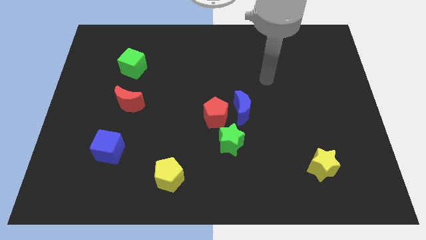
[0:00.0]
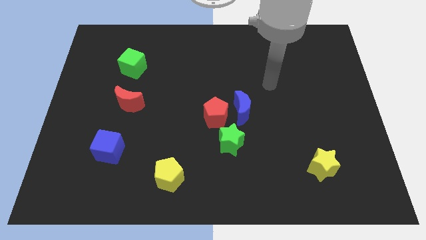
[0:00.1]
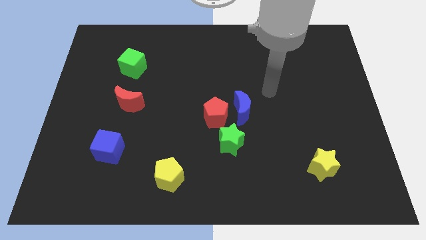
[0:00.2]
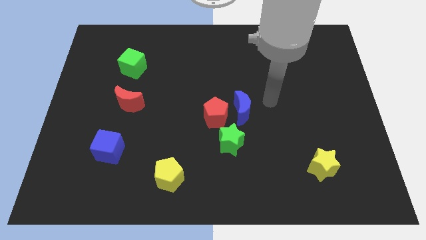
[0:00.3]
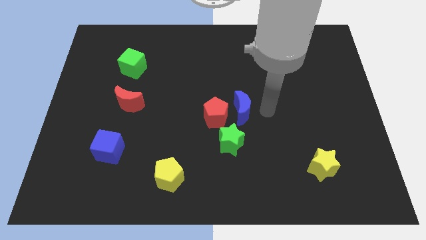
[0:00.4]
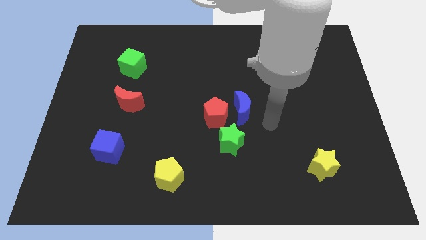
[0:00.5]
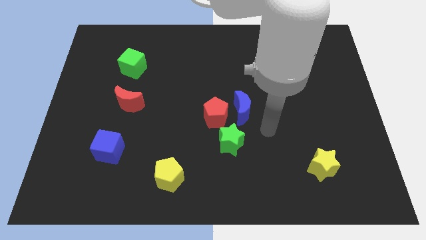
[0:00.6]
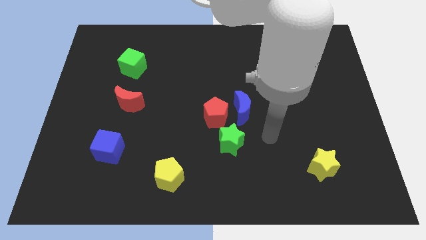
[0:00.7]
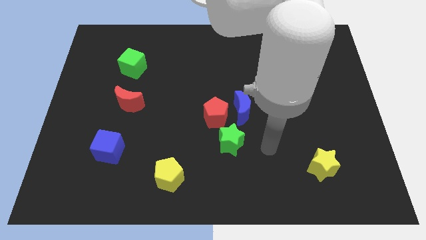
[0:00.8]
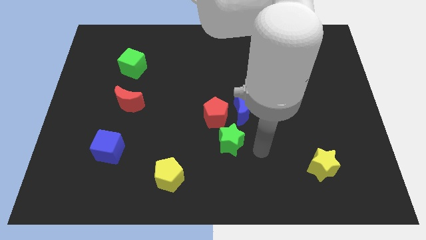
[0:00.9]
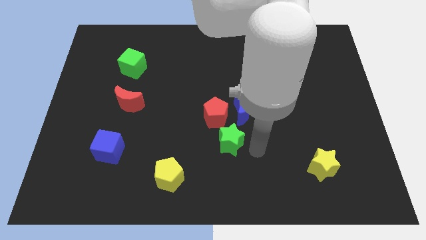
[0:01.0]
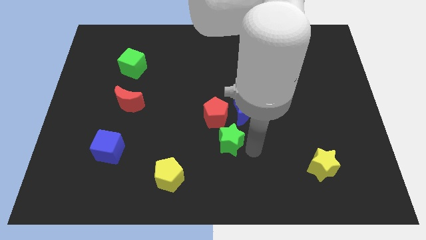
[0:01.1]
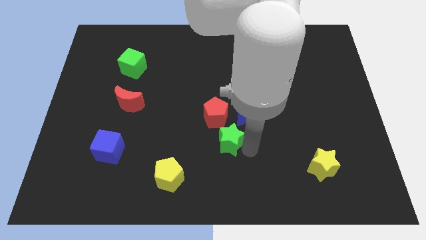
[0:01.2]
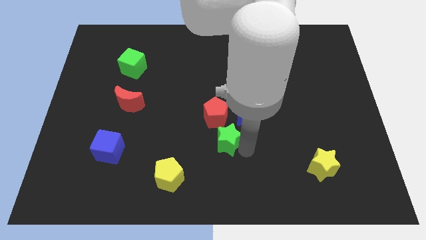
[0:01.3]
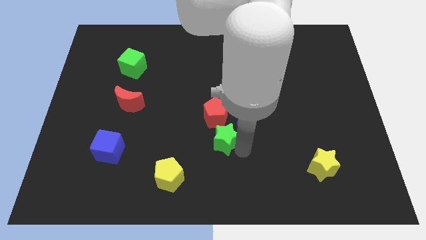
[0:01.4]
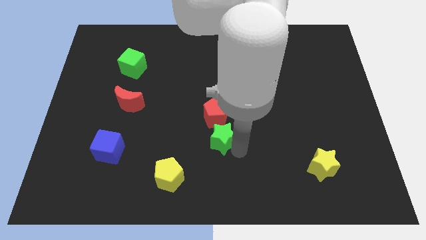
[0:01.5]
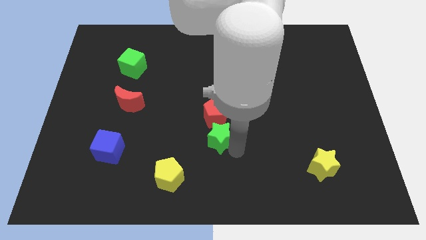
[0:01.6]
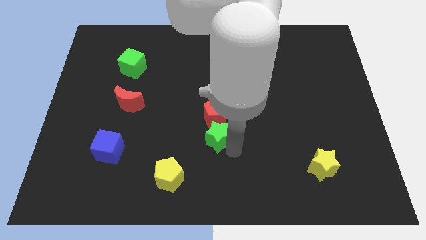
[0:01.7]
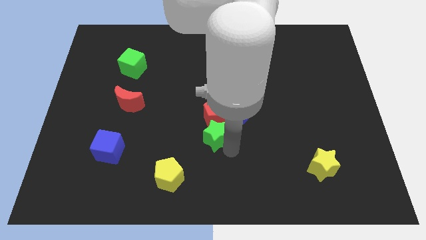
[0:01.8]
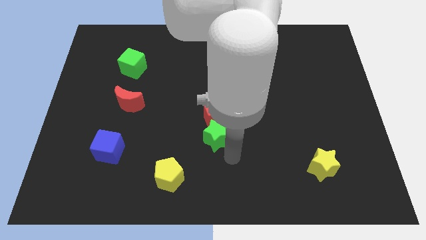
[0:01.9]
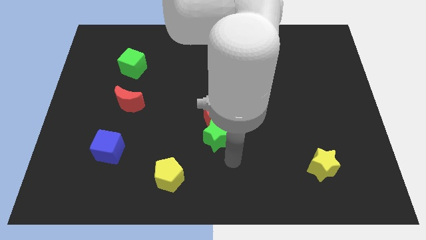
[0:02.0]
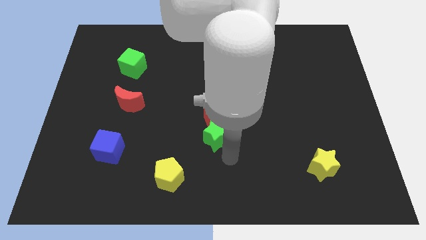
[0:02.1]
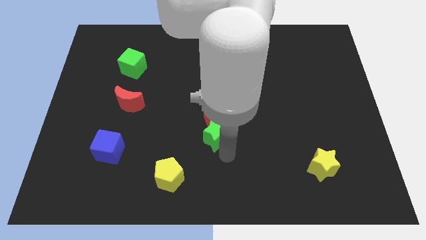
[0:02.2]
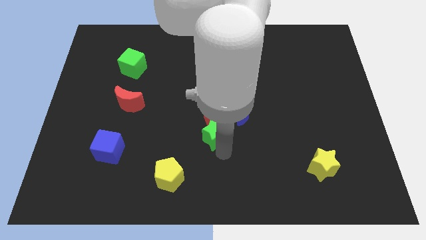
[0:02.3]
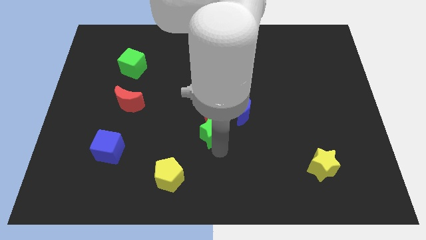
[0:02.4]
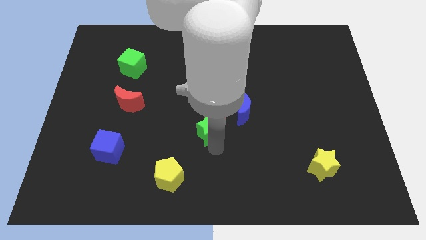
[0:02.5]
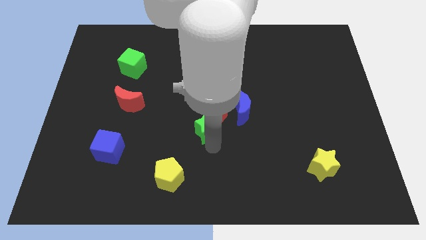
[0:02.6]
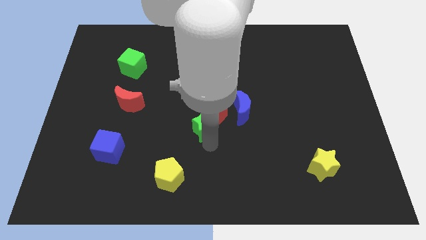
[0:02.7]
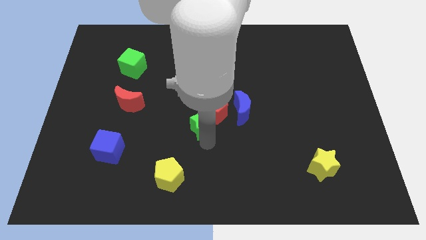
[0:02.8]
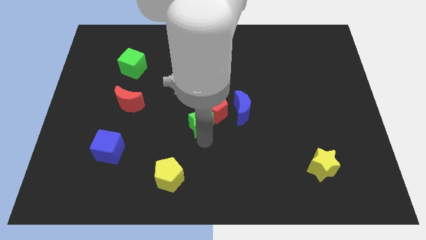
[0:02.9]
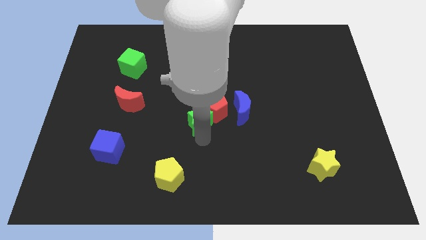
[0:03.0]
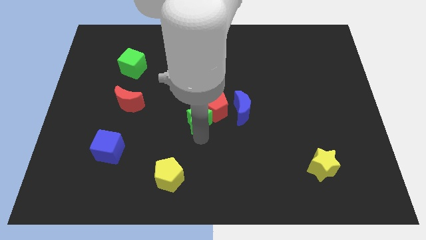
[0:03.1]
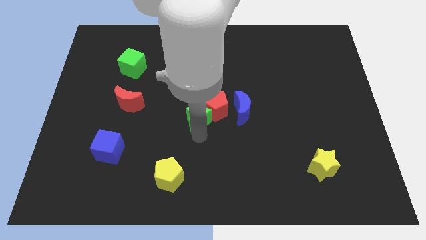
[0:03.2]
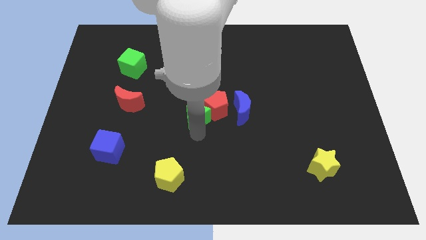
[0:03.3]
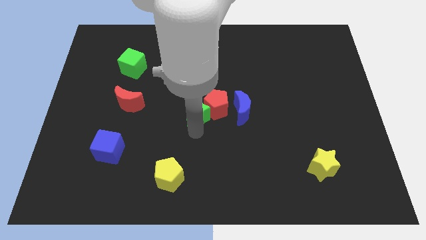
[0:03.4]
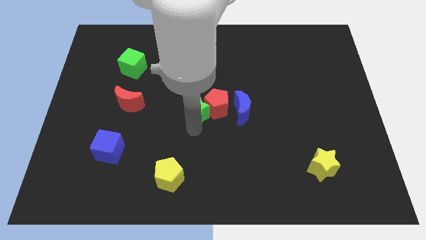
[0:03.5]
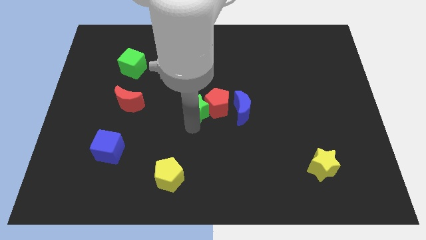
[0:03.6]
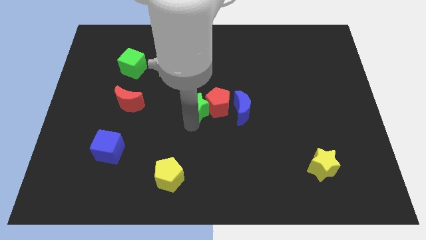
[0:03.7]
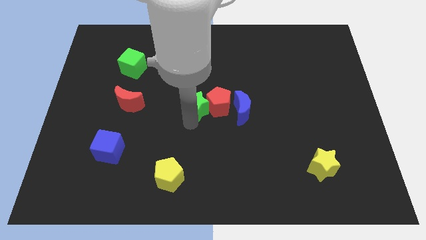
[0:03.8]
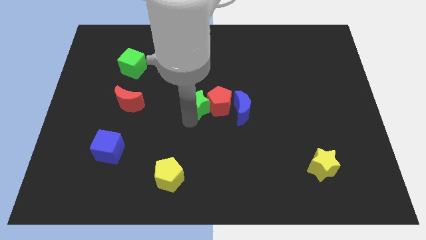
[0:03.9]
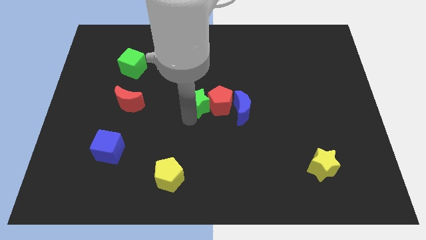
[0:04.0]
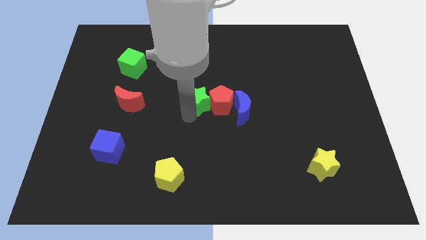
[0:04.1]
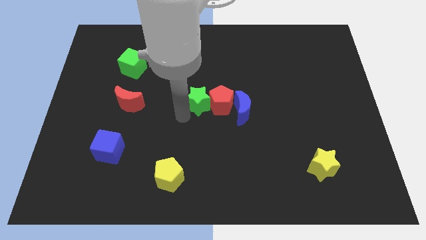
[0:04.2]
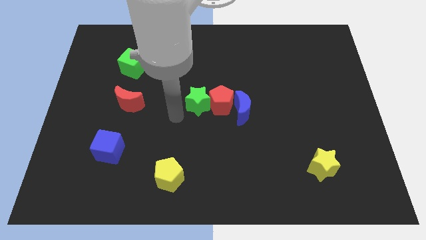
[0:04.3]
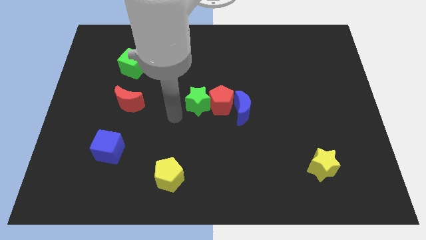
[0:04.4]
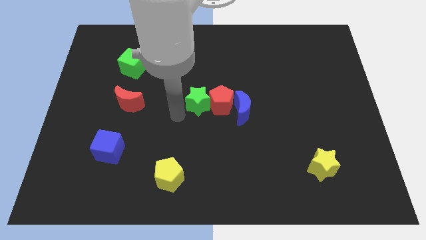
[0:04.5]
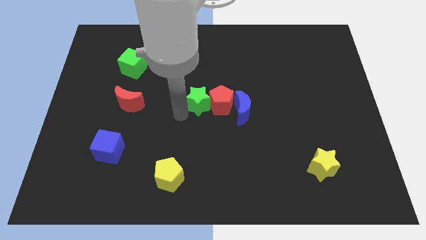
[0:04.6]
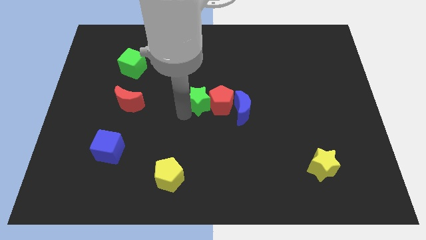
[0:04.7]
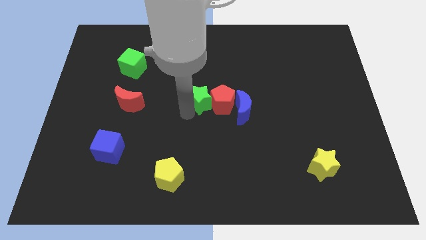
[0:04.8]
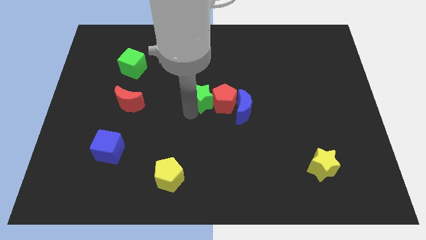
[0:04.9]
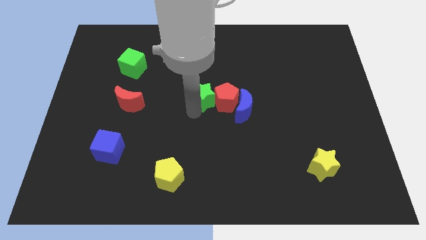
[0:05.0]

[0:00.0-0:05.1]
put the green star diagonally up and to the left of the blue moon

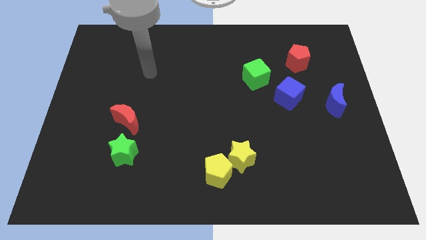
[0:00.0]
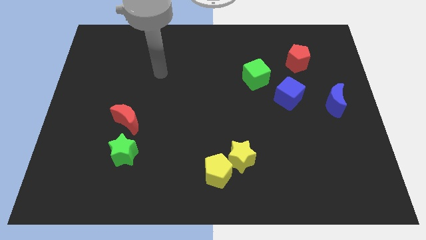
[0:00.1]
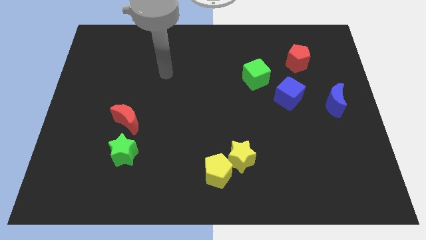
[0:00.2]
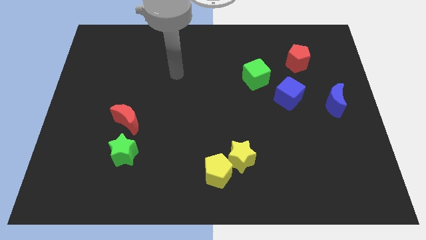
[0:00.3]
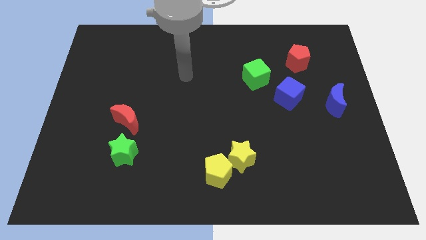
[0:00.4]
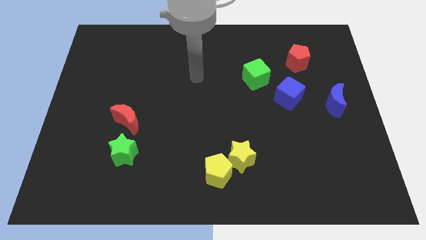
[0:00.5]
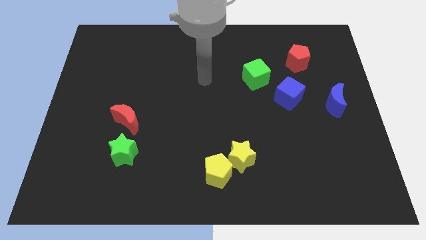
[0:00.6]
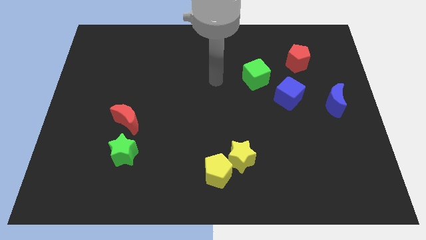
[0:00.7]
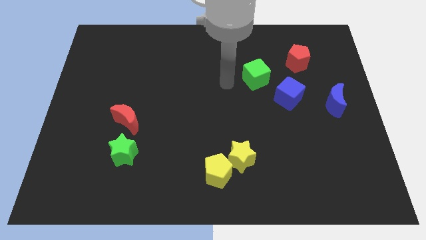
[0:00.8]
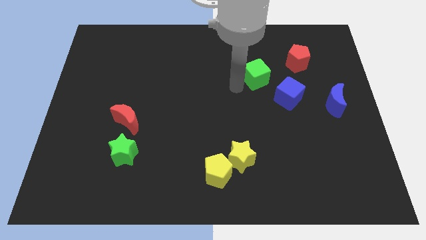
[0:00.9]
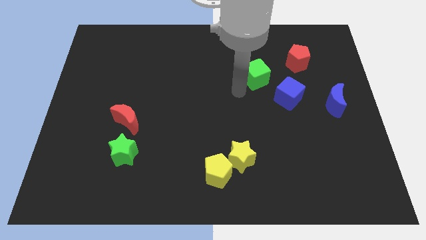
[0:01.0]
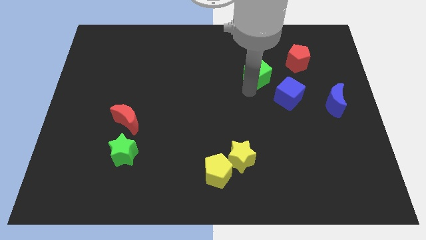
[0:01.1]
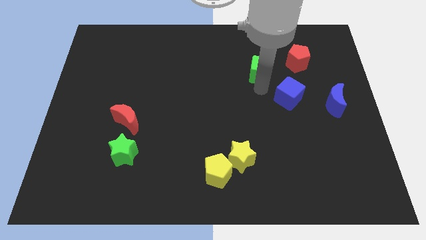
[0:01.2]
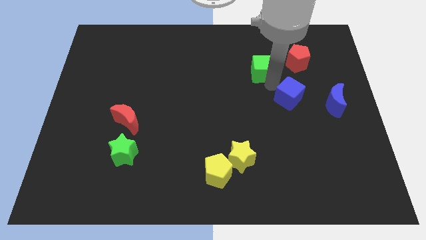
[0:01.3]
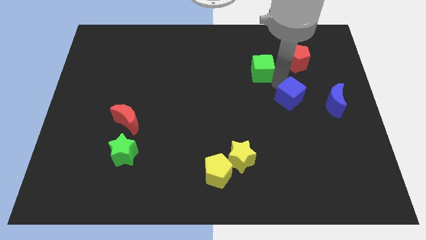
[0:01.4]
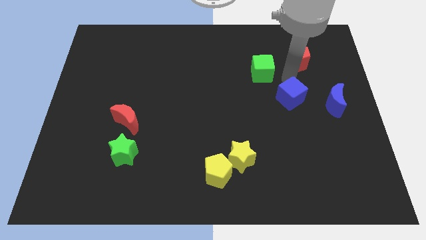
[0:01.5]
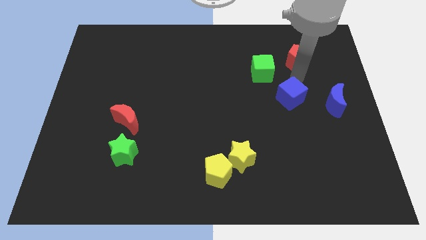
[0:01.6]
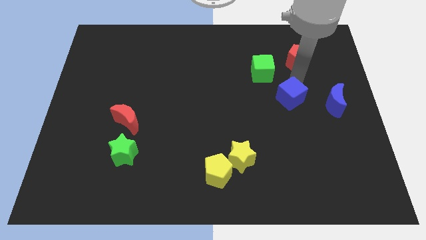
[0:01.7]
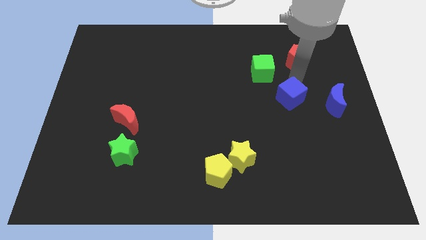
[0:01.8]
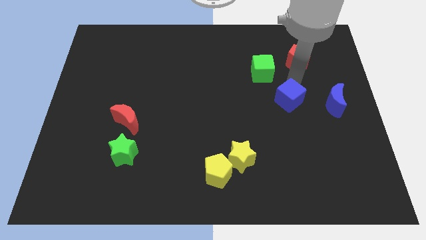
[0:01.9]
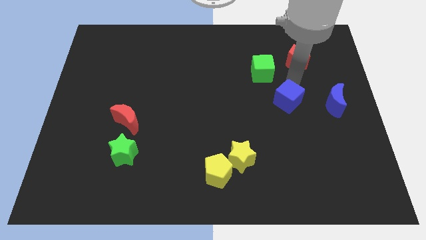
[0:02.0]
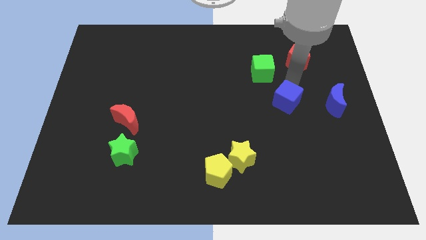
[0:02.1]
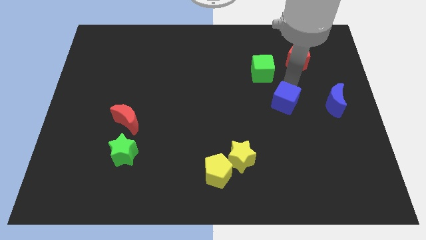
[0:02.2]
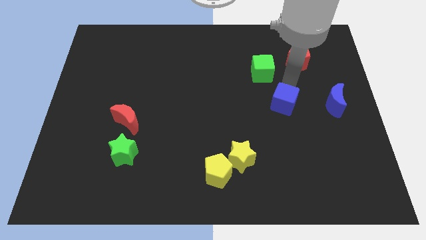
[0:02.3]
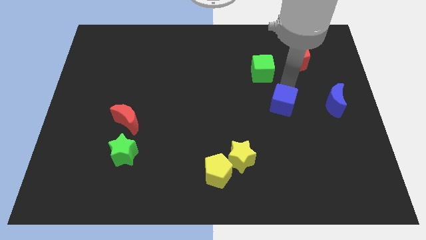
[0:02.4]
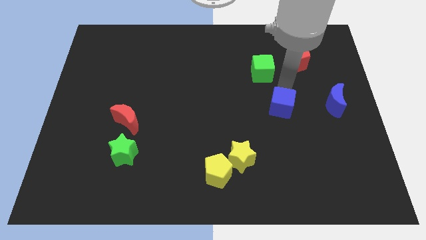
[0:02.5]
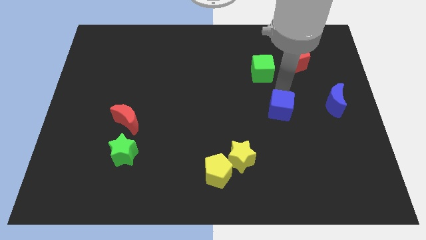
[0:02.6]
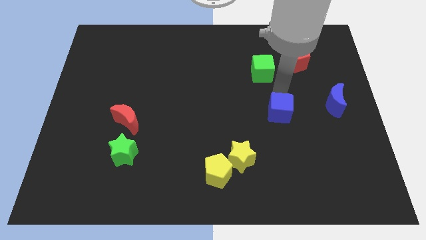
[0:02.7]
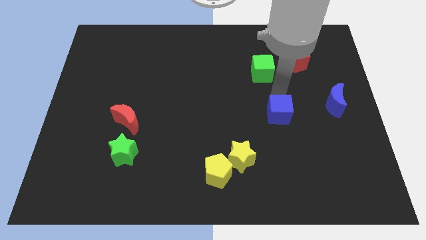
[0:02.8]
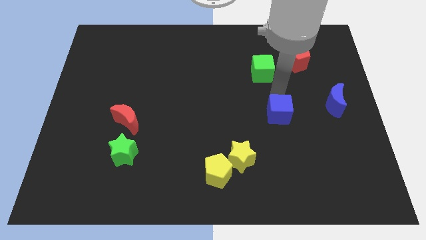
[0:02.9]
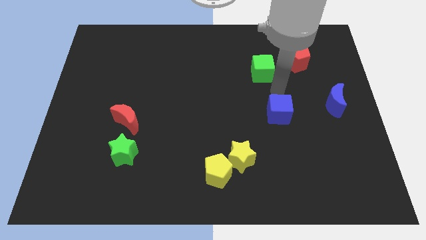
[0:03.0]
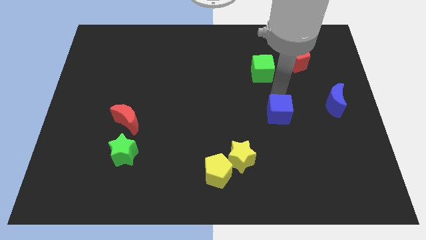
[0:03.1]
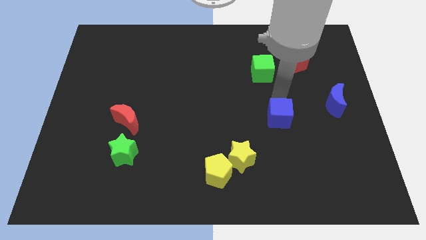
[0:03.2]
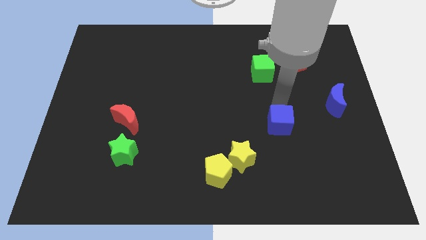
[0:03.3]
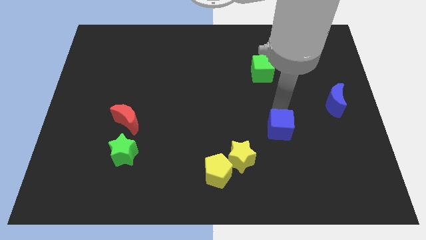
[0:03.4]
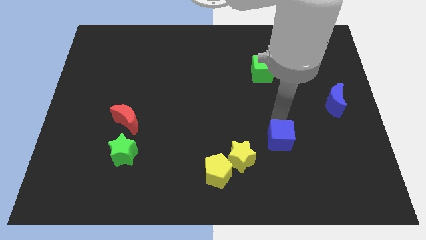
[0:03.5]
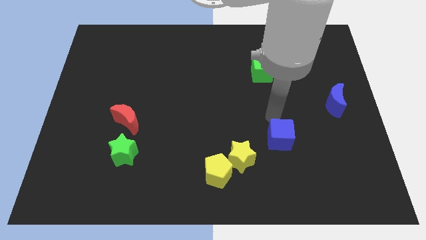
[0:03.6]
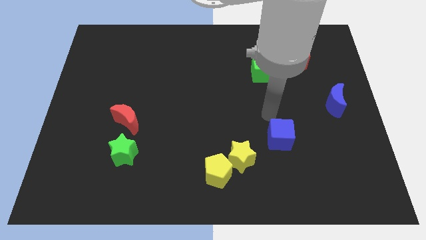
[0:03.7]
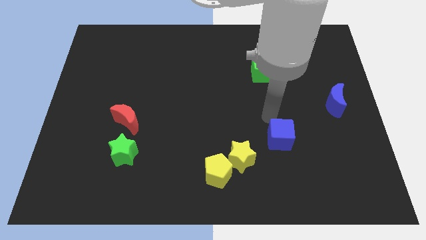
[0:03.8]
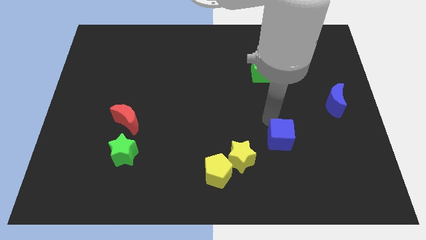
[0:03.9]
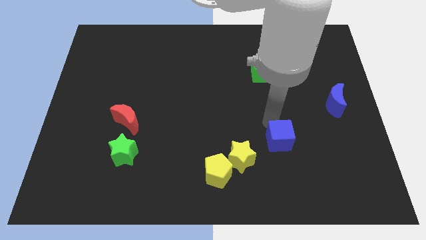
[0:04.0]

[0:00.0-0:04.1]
slide the blue cube to the right side of the yellow star
